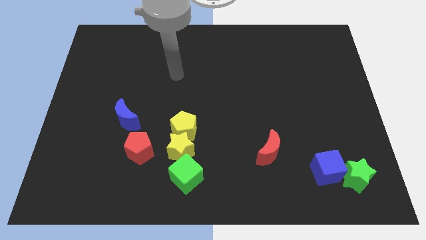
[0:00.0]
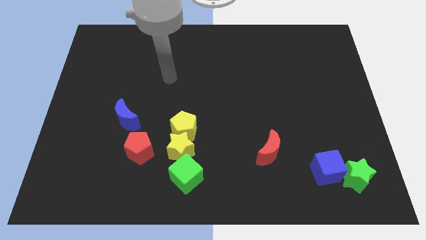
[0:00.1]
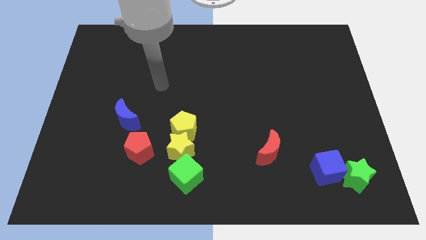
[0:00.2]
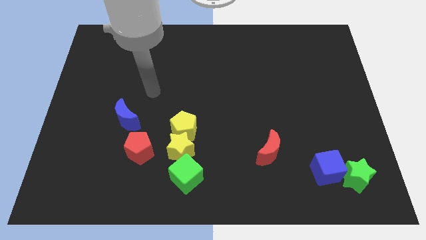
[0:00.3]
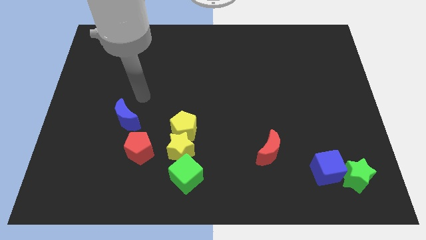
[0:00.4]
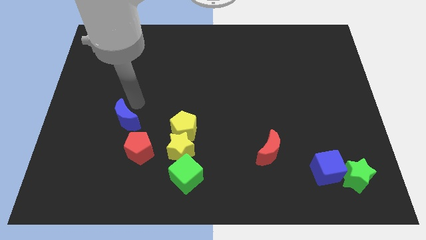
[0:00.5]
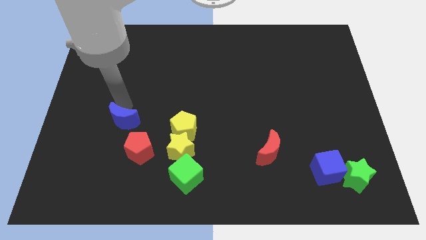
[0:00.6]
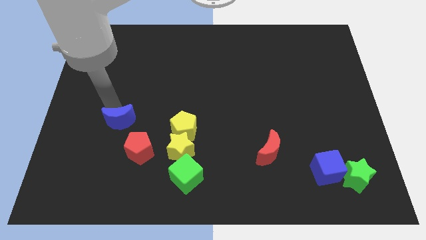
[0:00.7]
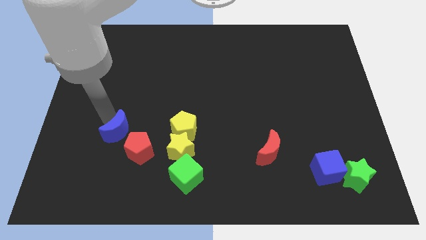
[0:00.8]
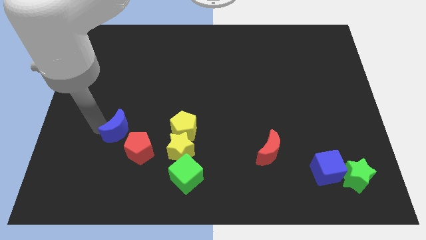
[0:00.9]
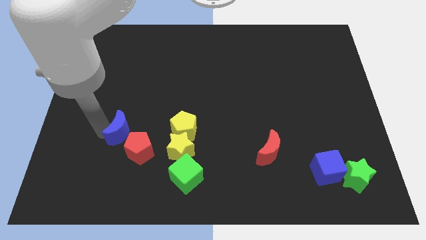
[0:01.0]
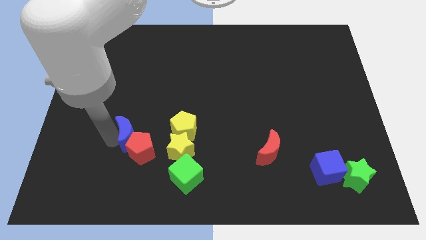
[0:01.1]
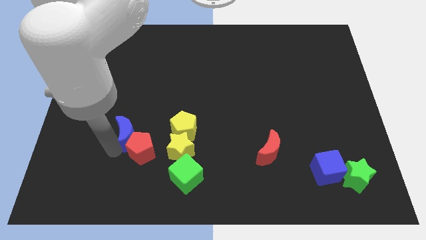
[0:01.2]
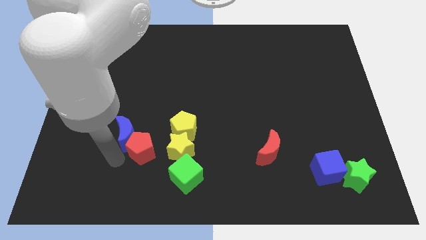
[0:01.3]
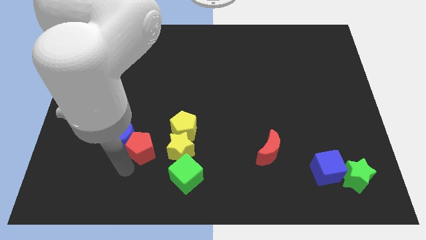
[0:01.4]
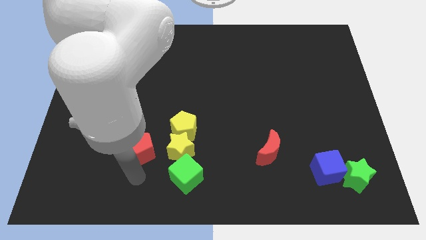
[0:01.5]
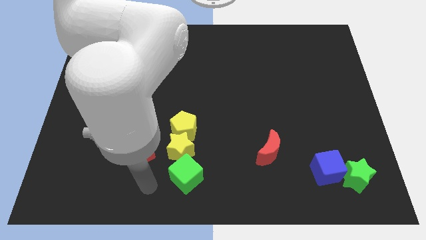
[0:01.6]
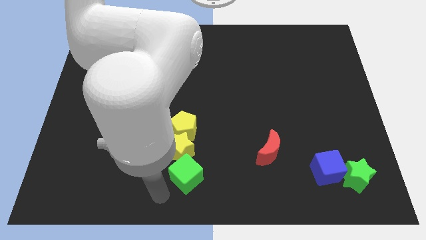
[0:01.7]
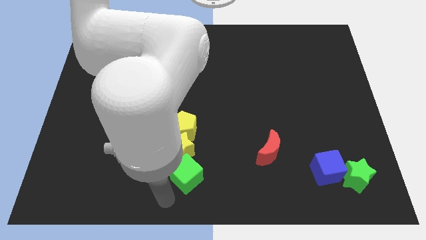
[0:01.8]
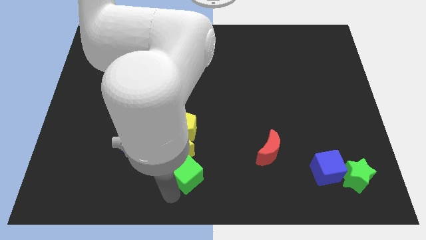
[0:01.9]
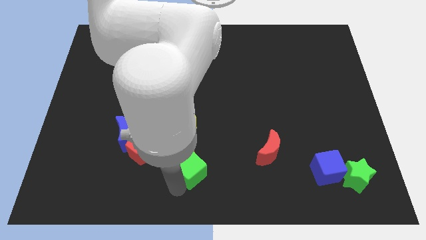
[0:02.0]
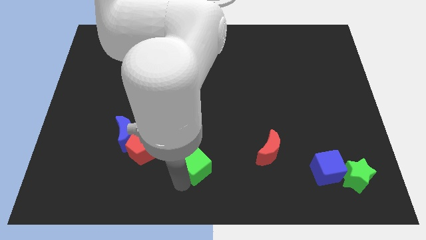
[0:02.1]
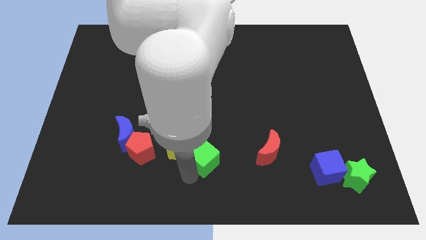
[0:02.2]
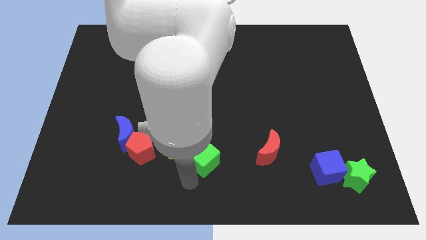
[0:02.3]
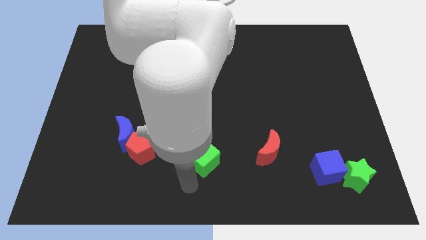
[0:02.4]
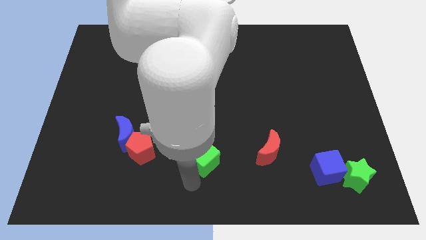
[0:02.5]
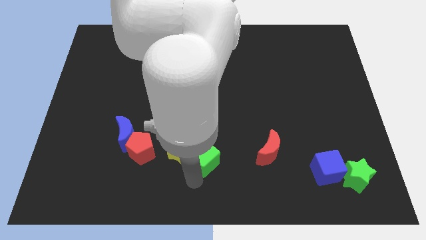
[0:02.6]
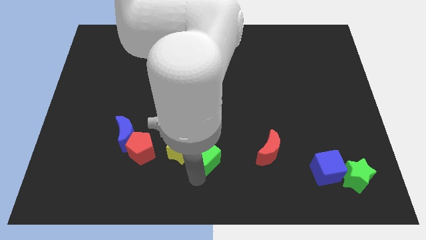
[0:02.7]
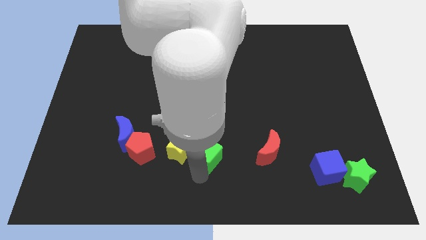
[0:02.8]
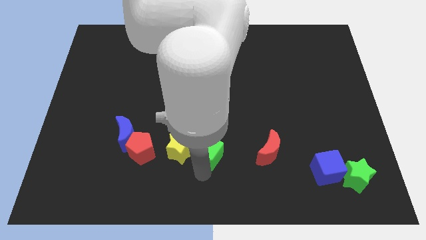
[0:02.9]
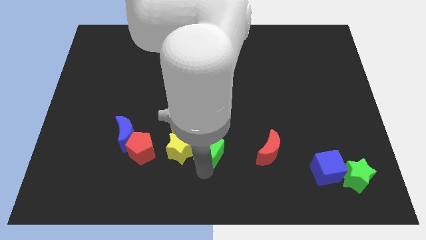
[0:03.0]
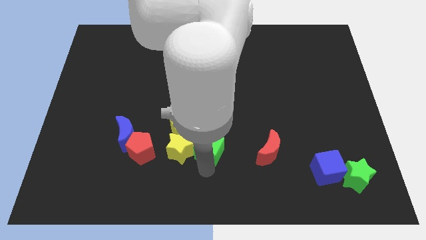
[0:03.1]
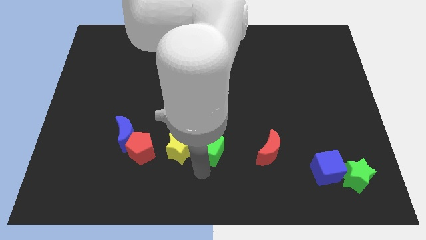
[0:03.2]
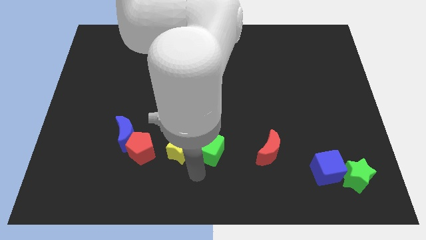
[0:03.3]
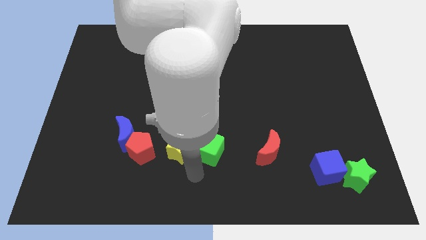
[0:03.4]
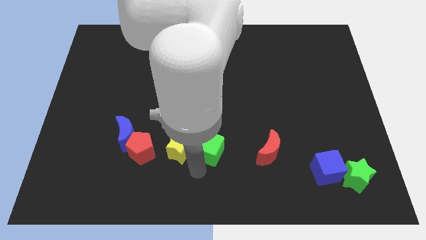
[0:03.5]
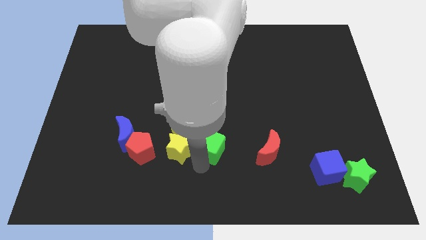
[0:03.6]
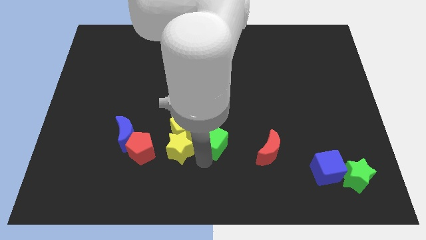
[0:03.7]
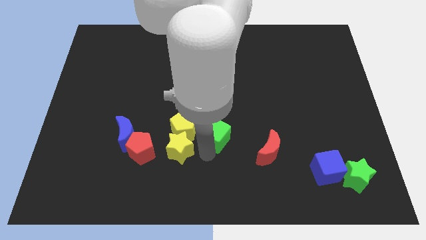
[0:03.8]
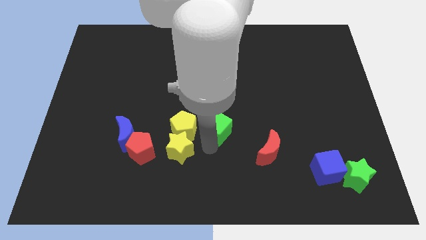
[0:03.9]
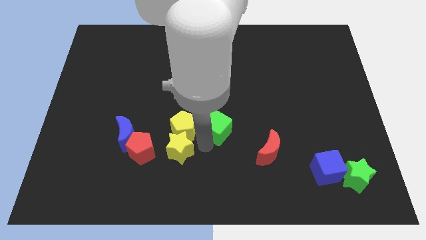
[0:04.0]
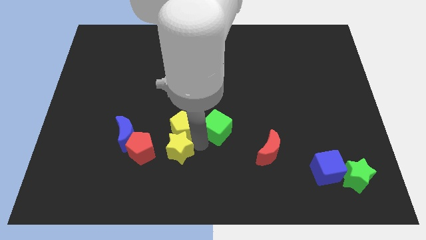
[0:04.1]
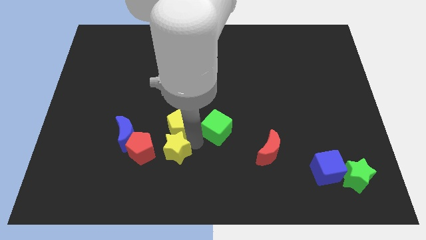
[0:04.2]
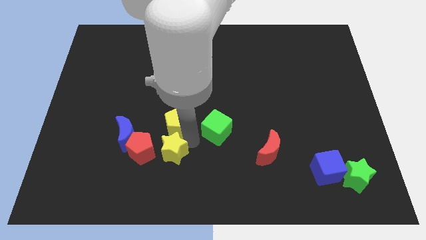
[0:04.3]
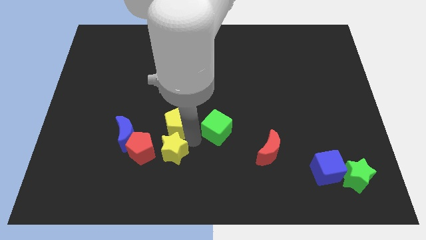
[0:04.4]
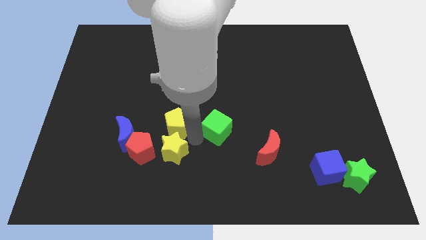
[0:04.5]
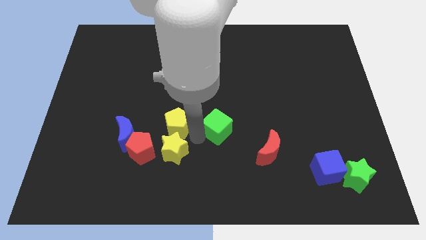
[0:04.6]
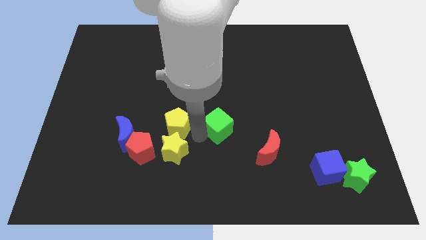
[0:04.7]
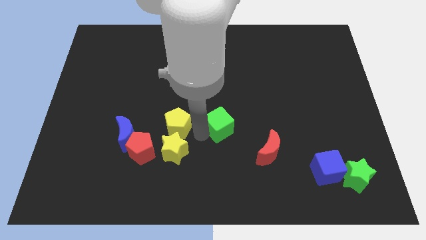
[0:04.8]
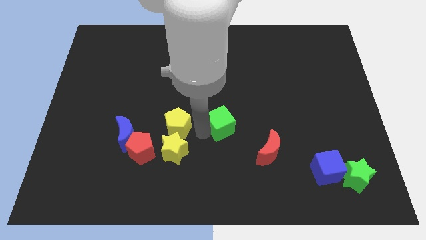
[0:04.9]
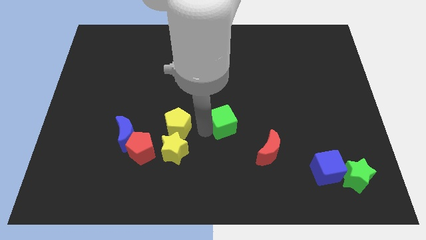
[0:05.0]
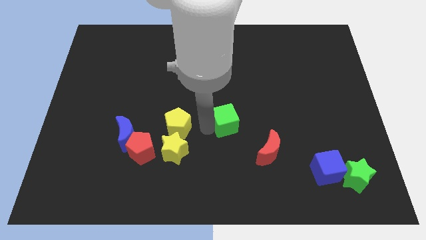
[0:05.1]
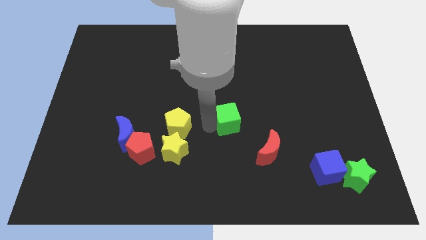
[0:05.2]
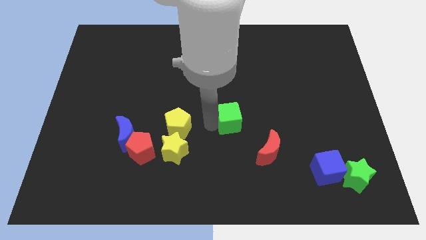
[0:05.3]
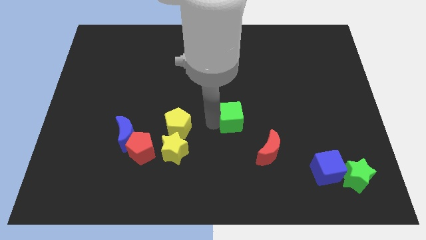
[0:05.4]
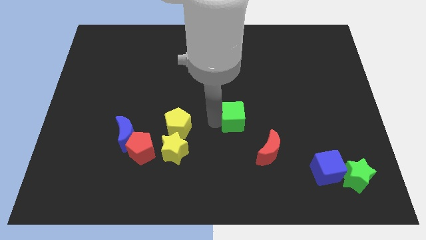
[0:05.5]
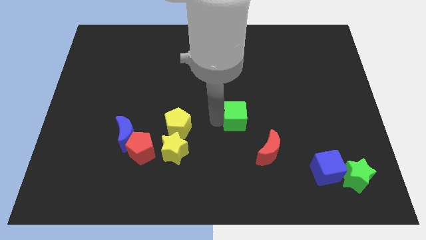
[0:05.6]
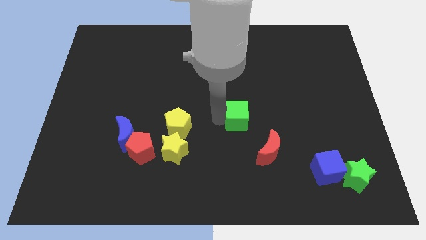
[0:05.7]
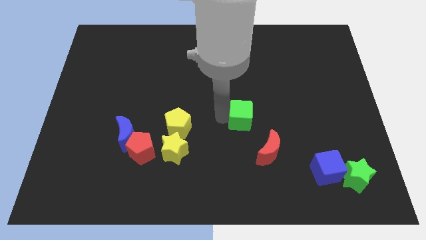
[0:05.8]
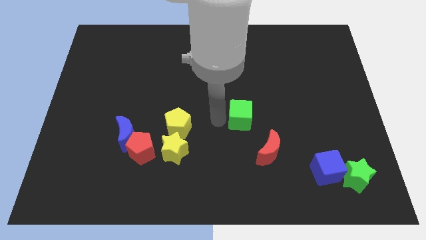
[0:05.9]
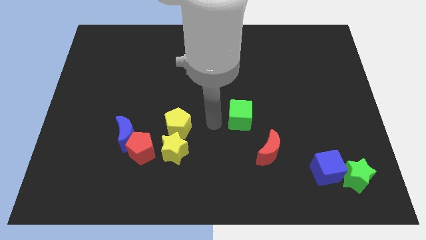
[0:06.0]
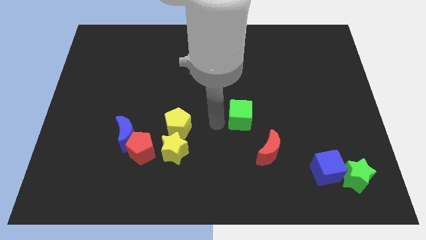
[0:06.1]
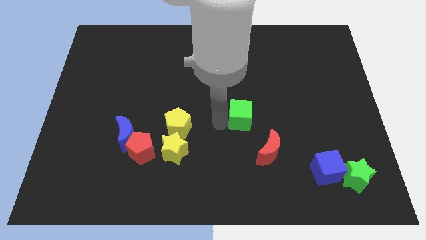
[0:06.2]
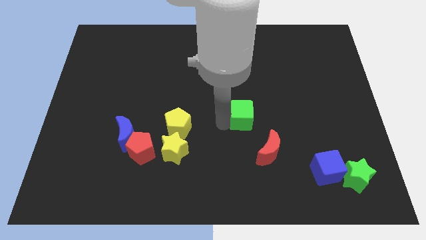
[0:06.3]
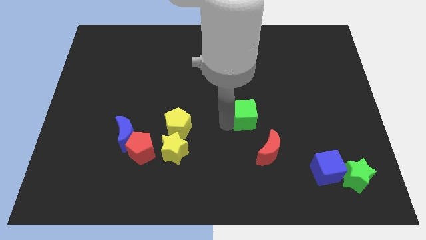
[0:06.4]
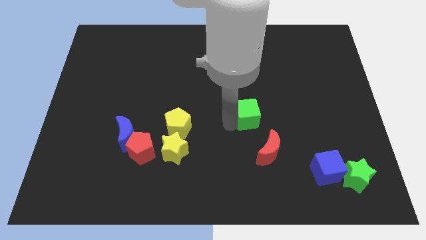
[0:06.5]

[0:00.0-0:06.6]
slide the green cube up and then to the right

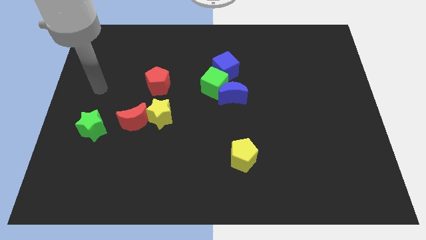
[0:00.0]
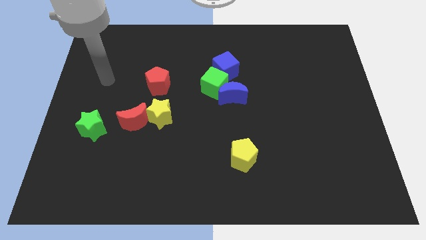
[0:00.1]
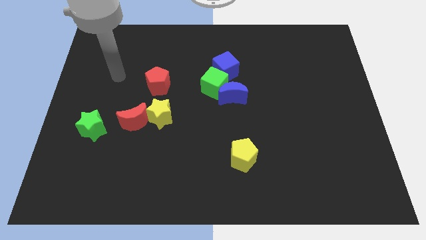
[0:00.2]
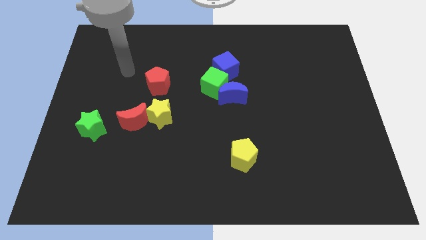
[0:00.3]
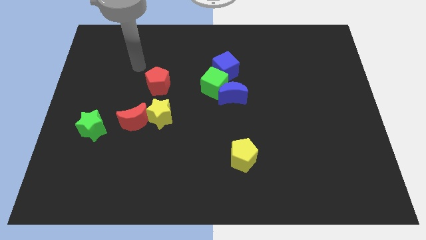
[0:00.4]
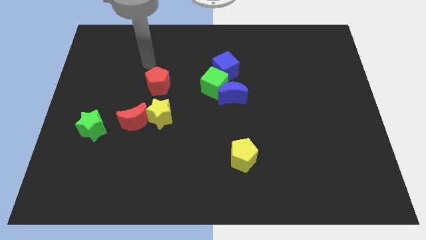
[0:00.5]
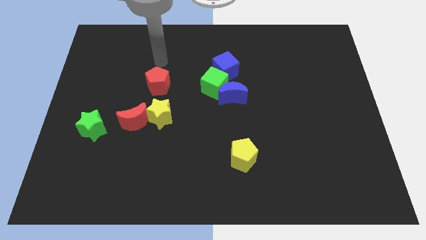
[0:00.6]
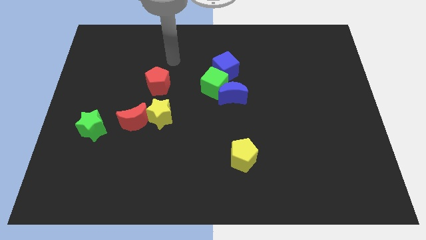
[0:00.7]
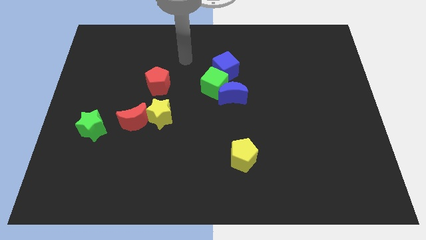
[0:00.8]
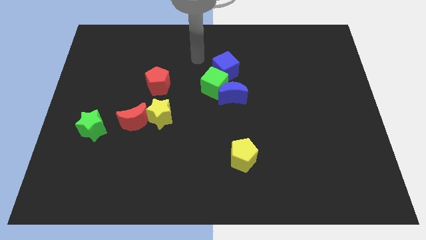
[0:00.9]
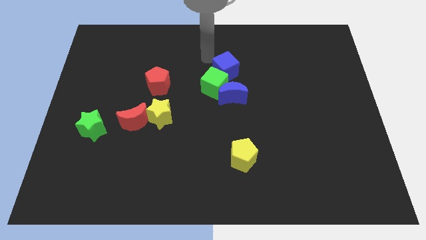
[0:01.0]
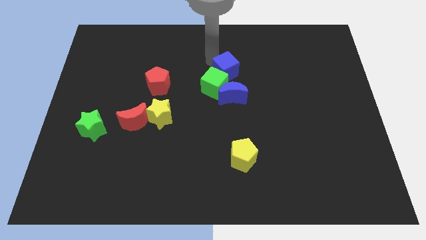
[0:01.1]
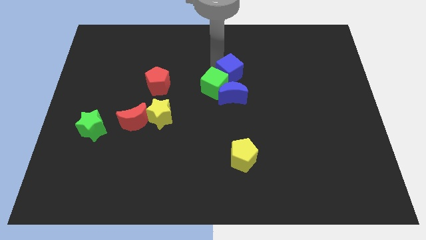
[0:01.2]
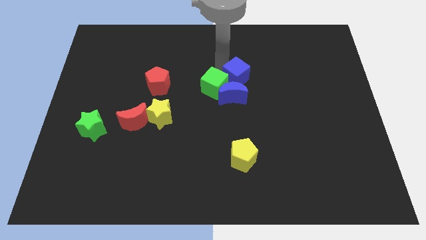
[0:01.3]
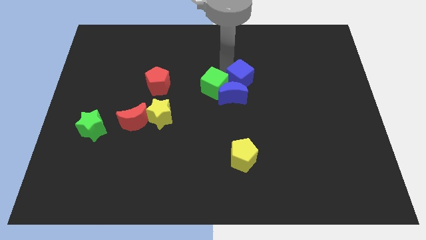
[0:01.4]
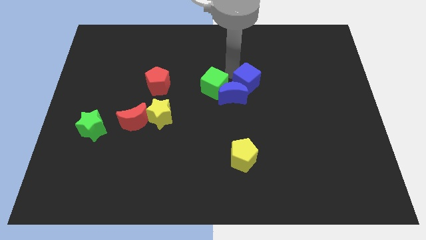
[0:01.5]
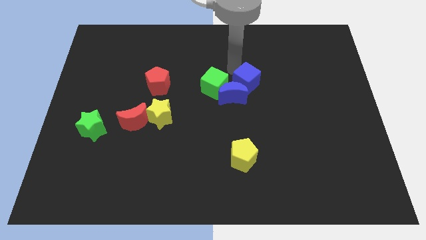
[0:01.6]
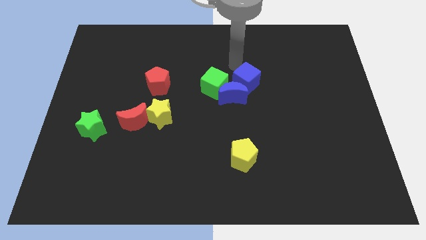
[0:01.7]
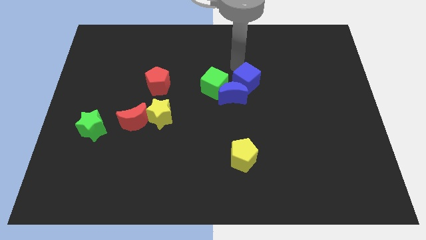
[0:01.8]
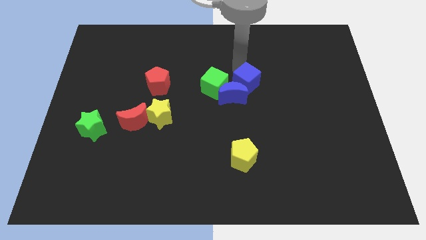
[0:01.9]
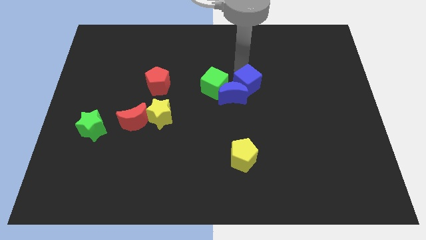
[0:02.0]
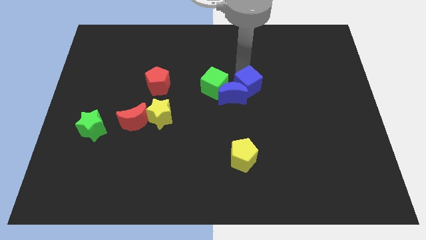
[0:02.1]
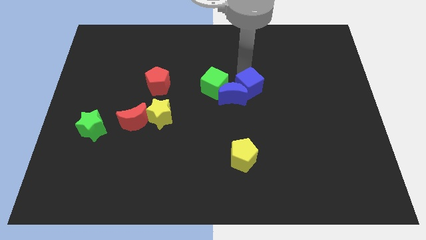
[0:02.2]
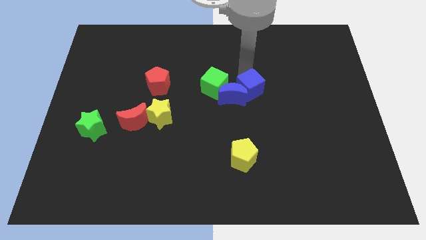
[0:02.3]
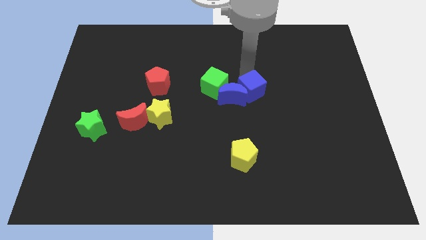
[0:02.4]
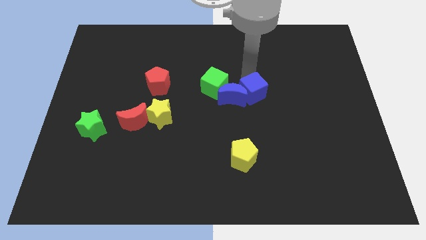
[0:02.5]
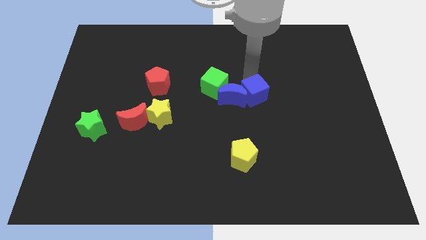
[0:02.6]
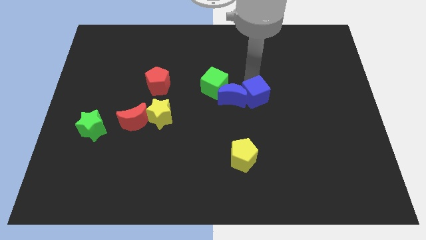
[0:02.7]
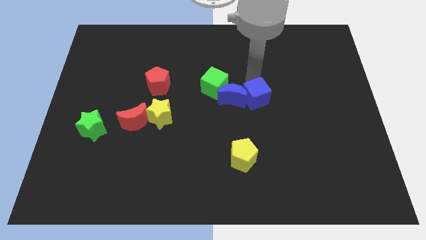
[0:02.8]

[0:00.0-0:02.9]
slightly push the blue cube down
